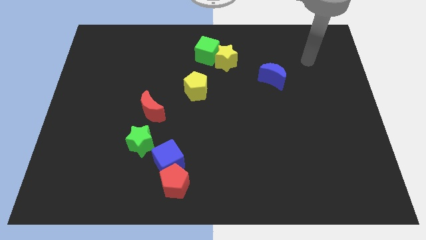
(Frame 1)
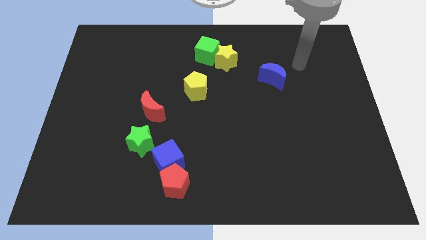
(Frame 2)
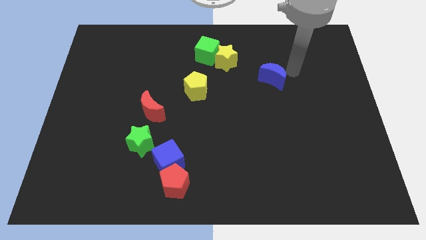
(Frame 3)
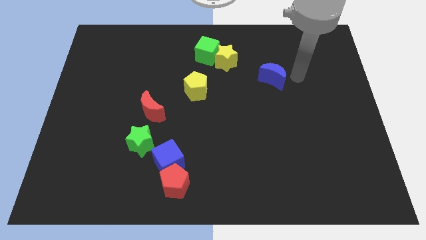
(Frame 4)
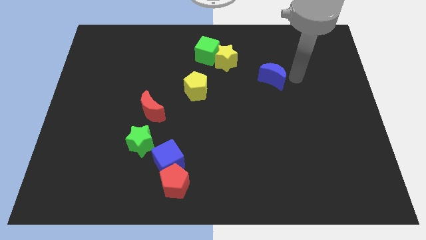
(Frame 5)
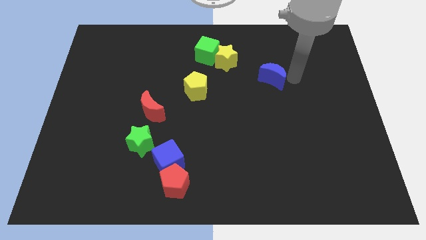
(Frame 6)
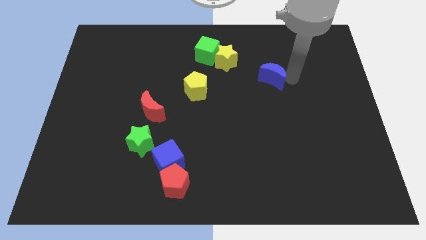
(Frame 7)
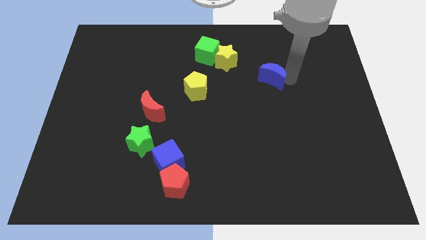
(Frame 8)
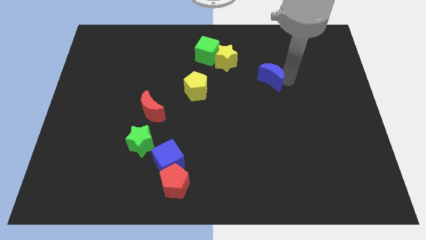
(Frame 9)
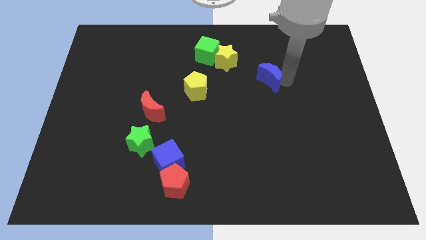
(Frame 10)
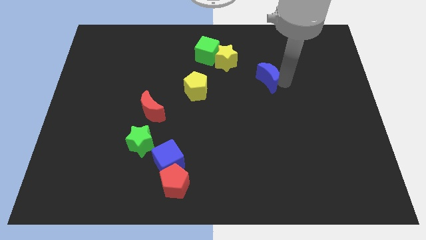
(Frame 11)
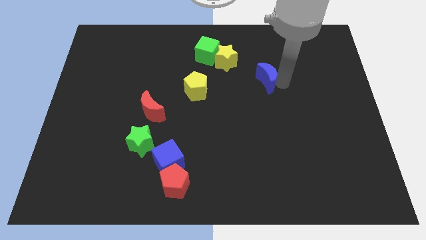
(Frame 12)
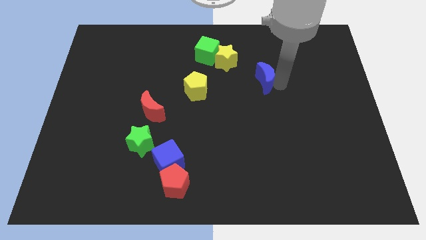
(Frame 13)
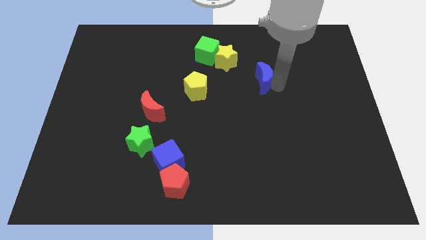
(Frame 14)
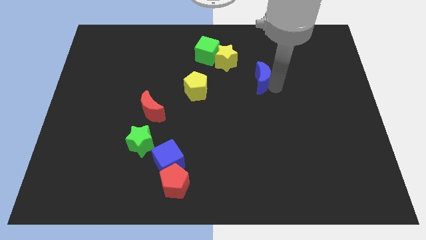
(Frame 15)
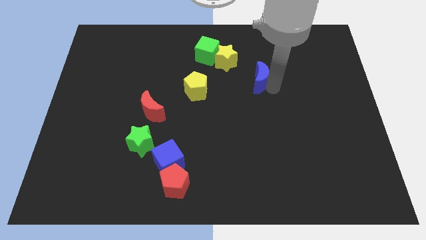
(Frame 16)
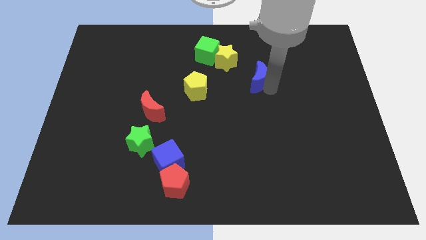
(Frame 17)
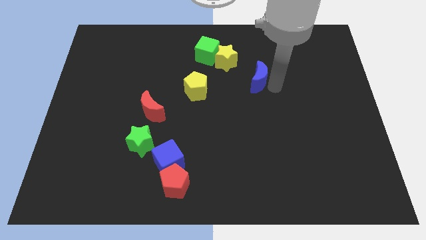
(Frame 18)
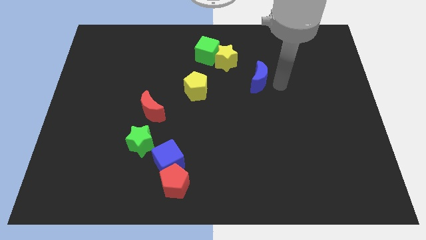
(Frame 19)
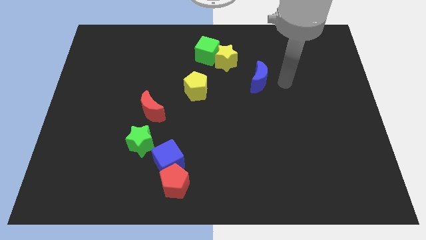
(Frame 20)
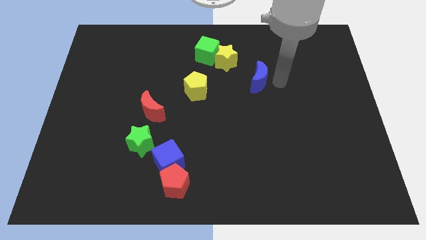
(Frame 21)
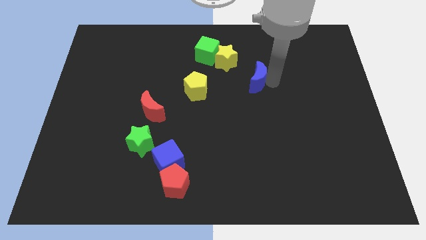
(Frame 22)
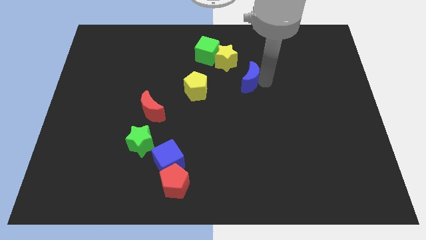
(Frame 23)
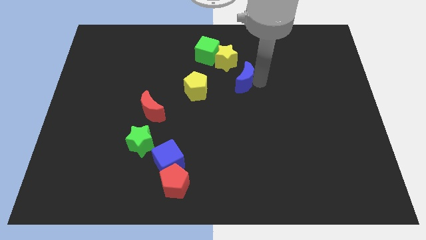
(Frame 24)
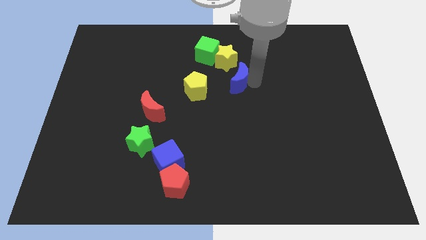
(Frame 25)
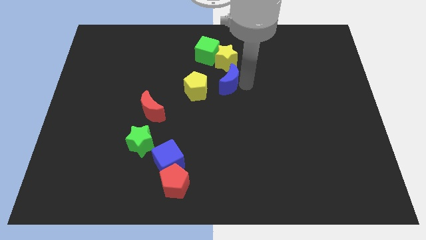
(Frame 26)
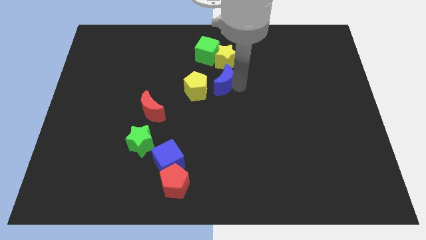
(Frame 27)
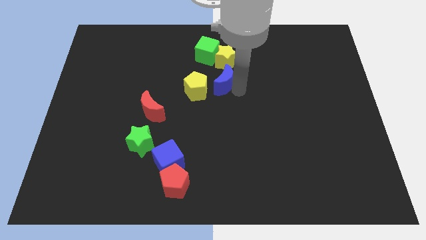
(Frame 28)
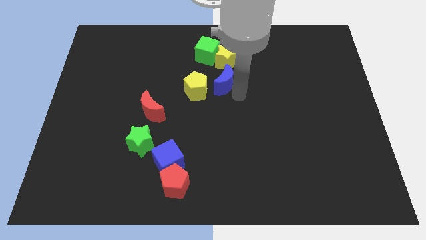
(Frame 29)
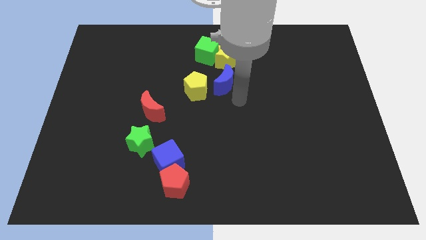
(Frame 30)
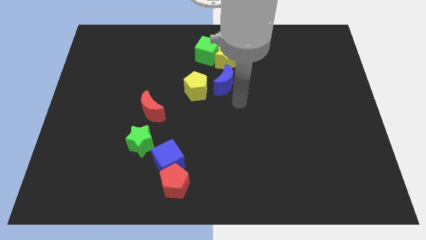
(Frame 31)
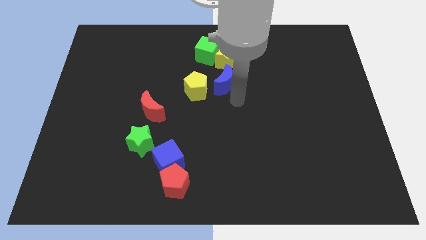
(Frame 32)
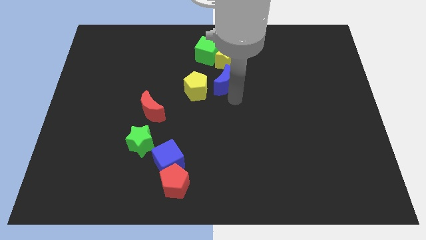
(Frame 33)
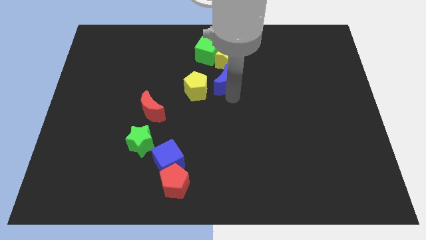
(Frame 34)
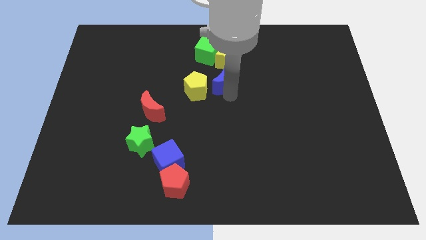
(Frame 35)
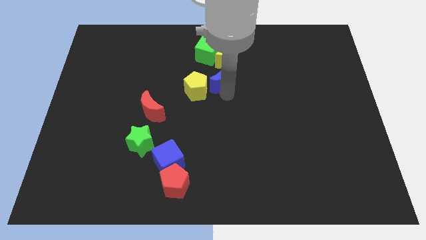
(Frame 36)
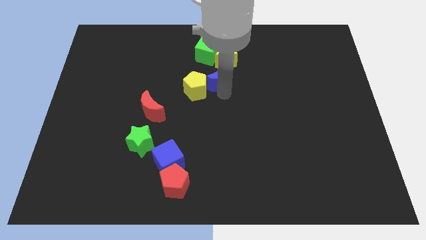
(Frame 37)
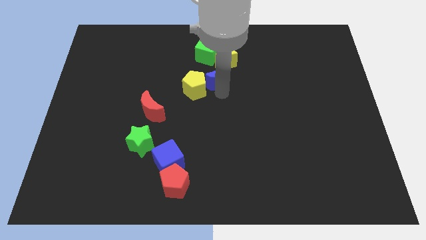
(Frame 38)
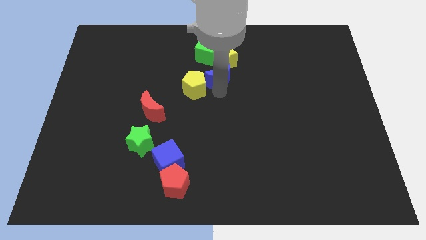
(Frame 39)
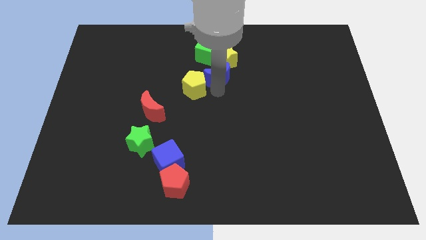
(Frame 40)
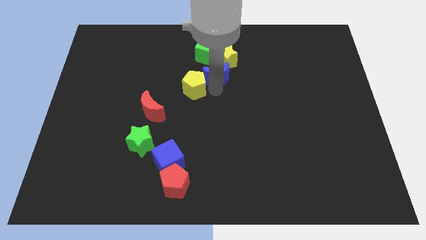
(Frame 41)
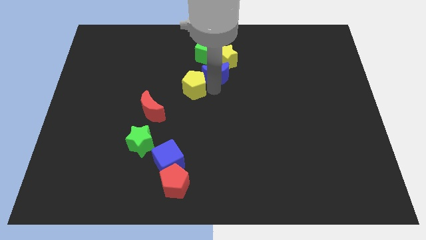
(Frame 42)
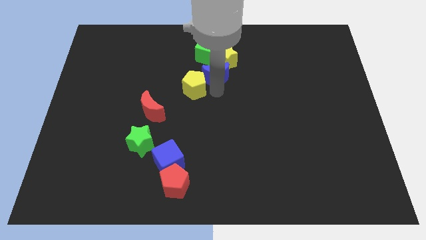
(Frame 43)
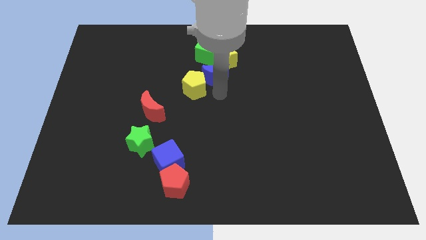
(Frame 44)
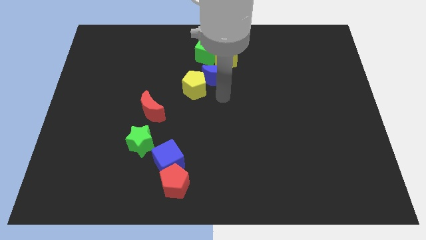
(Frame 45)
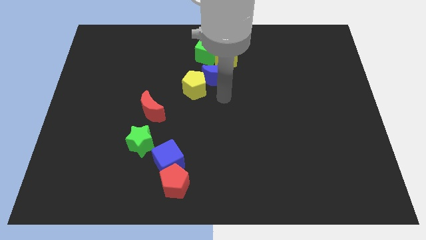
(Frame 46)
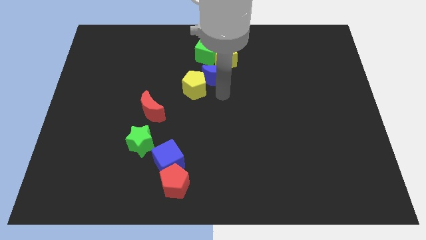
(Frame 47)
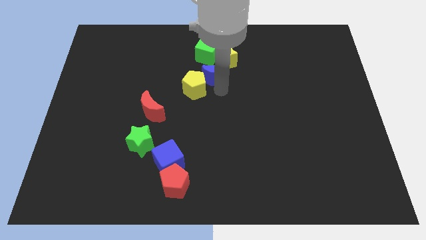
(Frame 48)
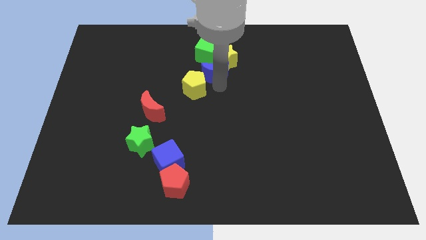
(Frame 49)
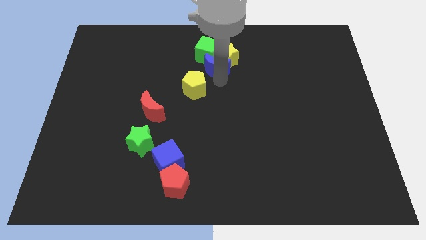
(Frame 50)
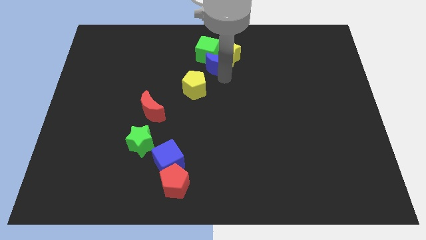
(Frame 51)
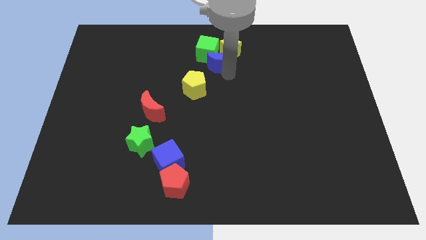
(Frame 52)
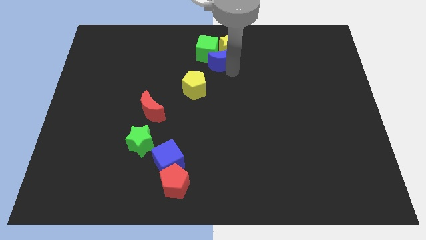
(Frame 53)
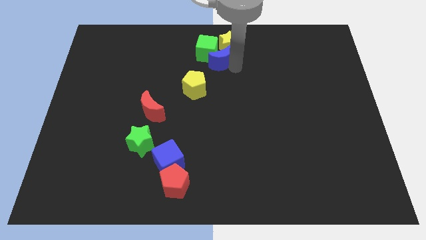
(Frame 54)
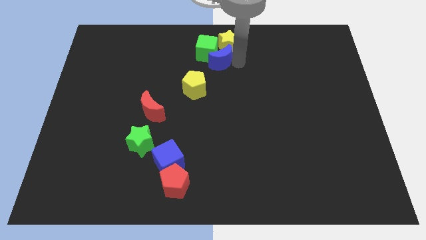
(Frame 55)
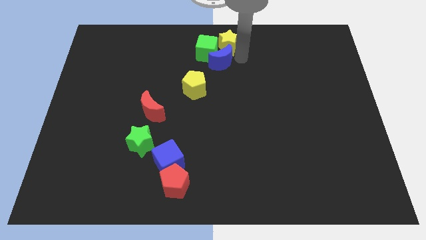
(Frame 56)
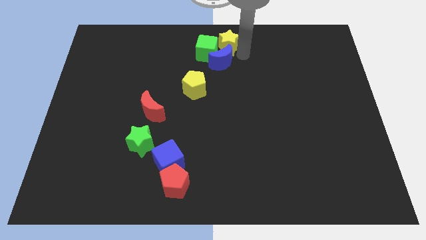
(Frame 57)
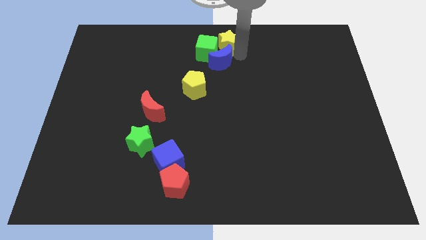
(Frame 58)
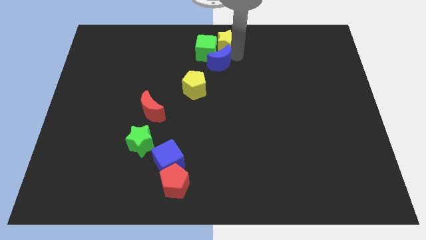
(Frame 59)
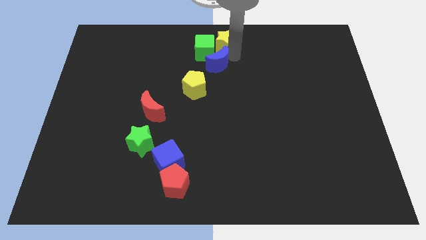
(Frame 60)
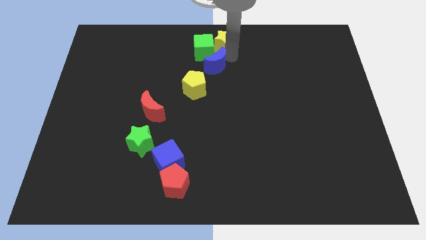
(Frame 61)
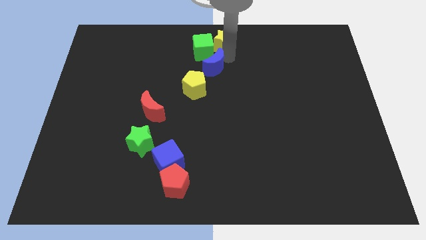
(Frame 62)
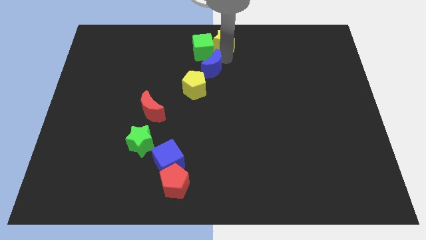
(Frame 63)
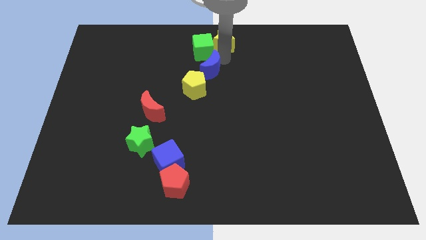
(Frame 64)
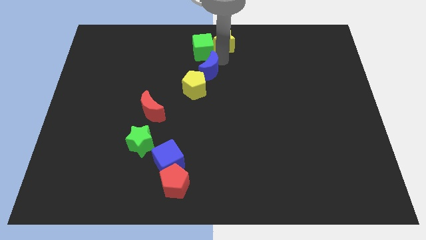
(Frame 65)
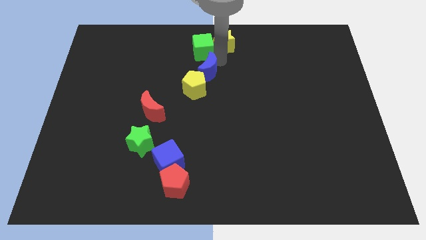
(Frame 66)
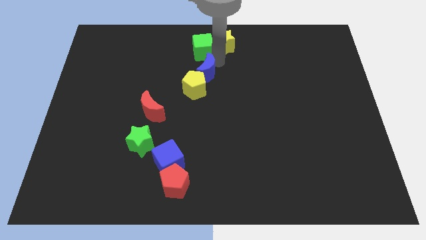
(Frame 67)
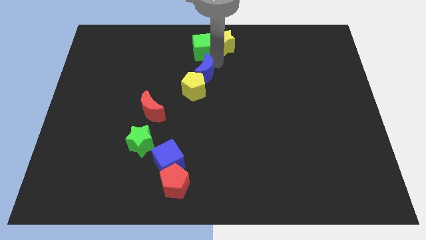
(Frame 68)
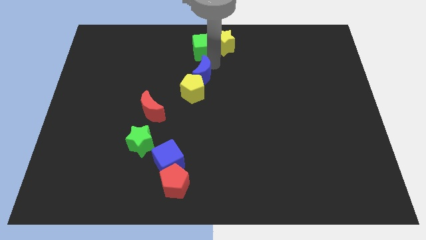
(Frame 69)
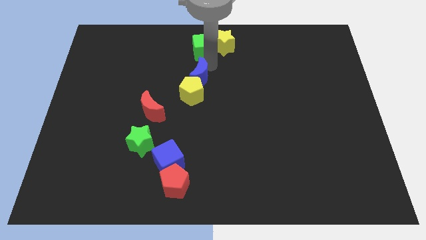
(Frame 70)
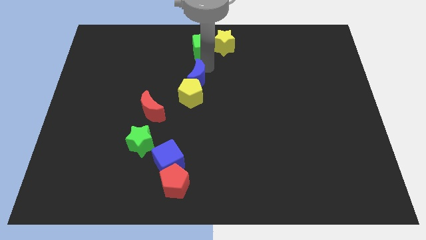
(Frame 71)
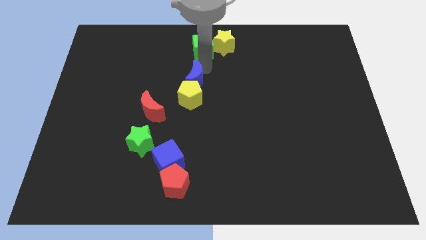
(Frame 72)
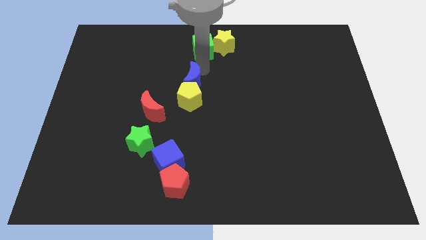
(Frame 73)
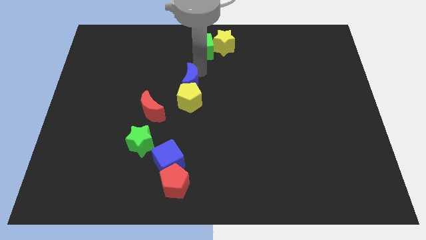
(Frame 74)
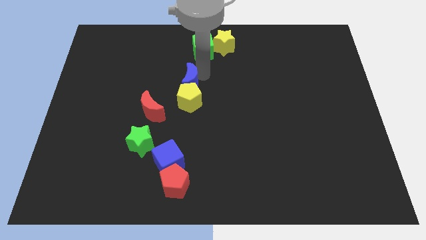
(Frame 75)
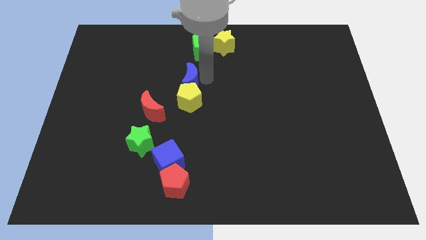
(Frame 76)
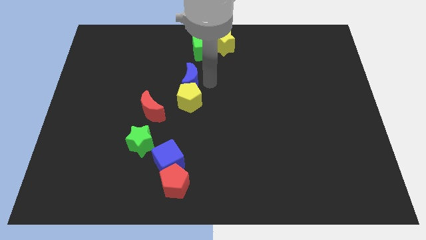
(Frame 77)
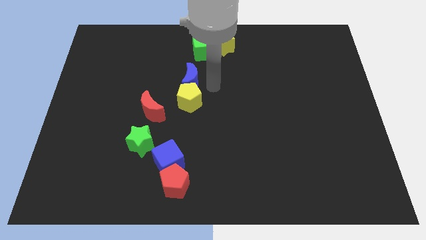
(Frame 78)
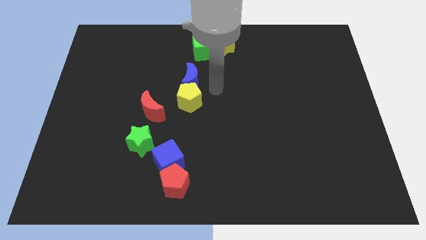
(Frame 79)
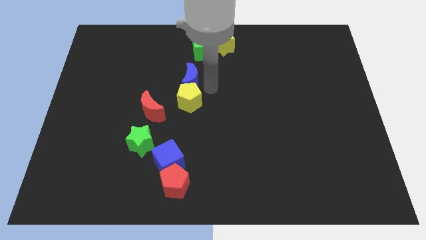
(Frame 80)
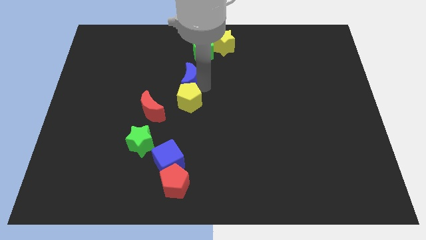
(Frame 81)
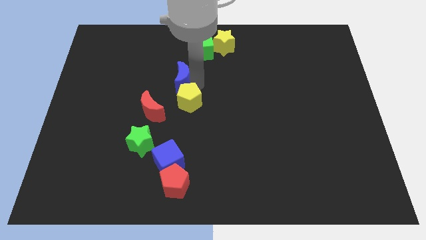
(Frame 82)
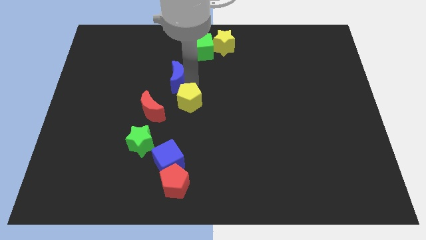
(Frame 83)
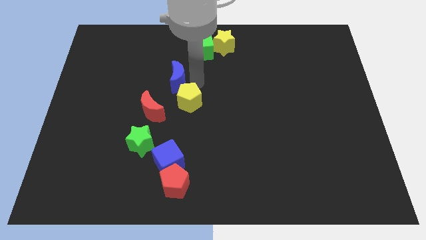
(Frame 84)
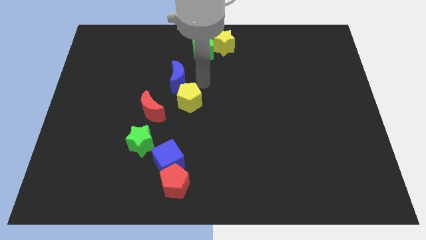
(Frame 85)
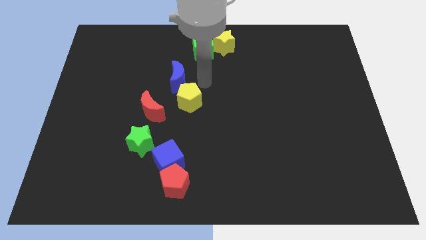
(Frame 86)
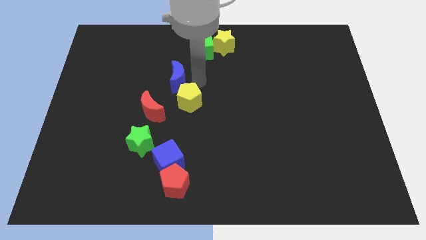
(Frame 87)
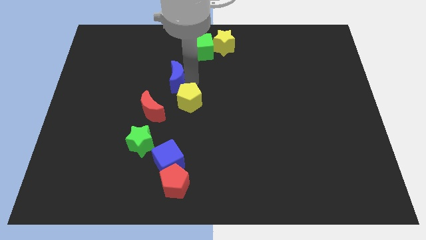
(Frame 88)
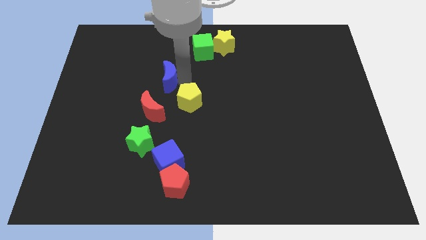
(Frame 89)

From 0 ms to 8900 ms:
put the blue moon to the top of the red moon
